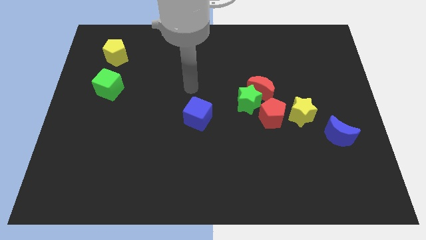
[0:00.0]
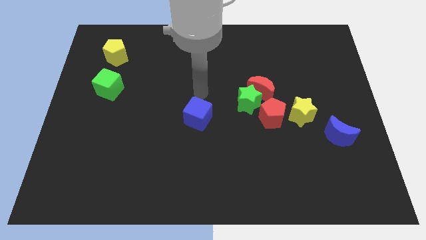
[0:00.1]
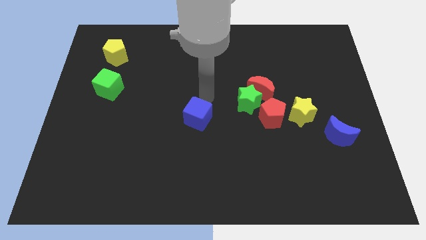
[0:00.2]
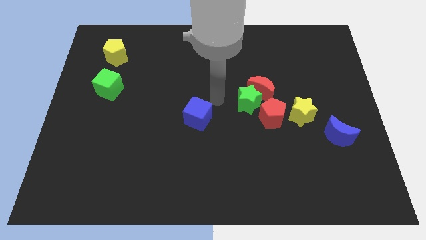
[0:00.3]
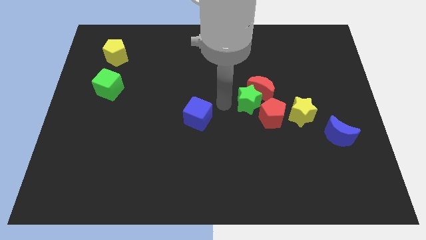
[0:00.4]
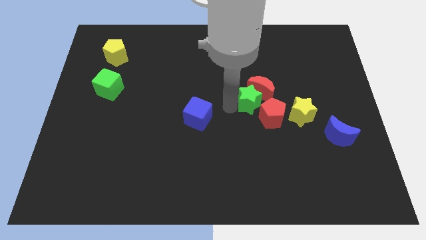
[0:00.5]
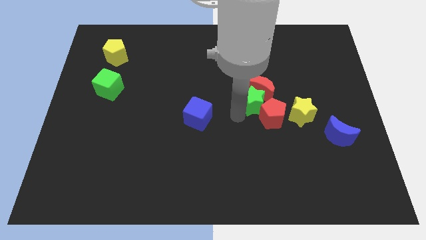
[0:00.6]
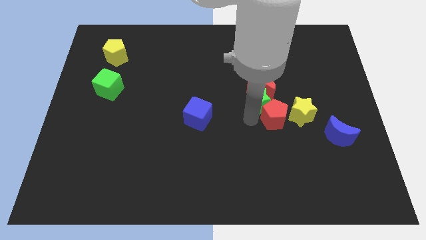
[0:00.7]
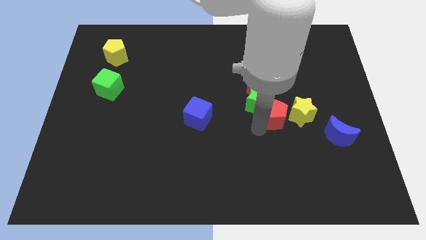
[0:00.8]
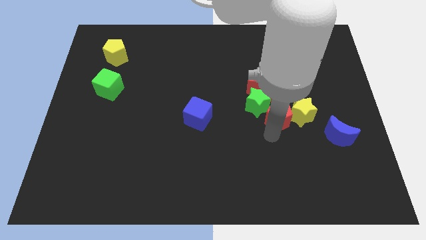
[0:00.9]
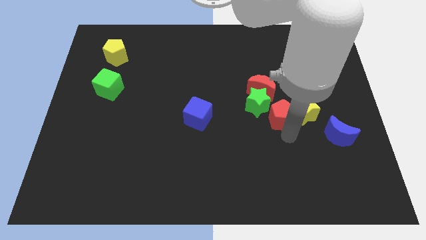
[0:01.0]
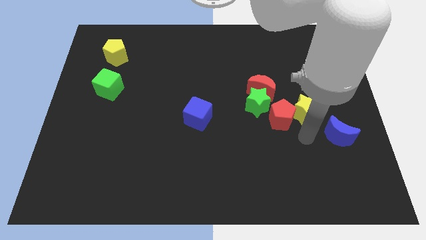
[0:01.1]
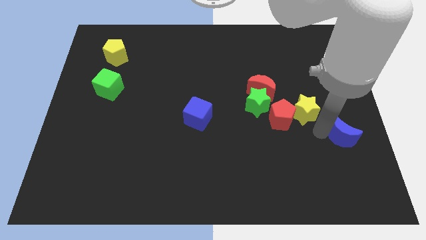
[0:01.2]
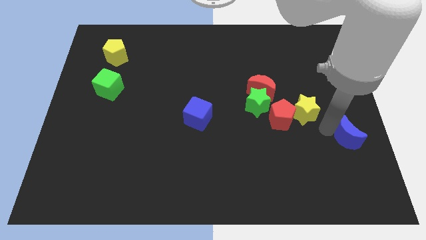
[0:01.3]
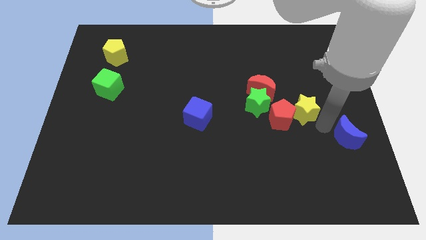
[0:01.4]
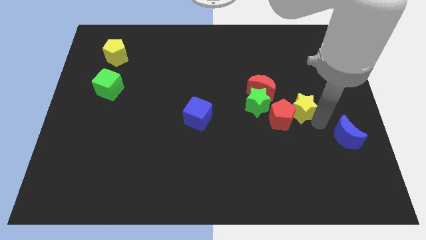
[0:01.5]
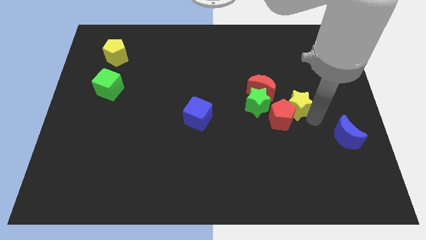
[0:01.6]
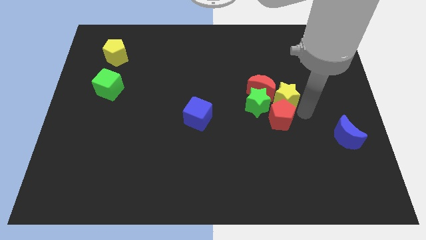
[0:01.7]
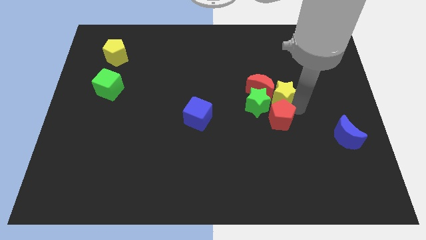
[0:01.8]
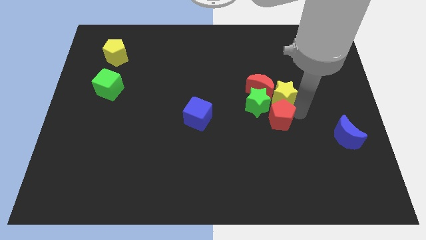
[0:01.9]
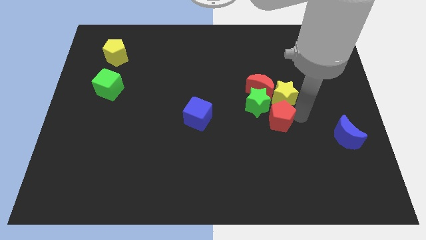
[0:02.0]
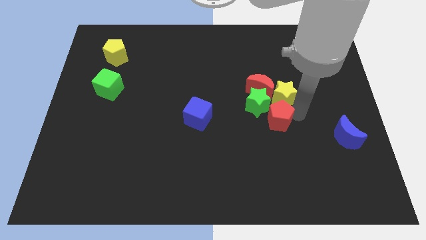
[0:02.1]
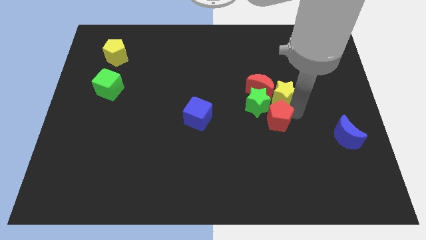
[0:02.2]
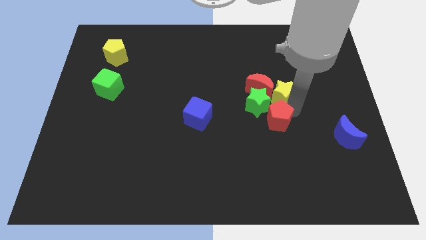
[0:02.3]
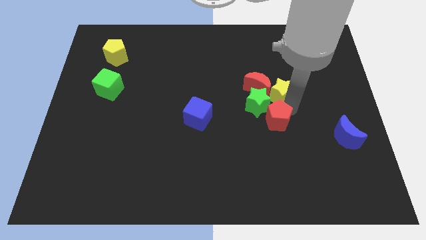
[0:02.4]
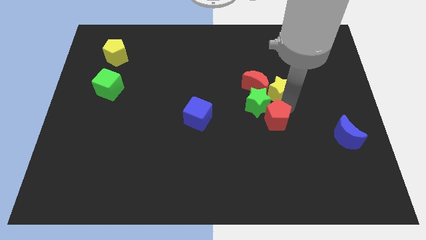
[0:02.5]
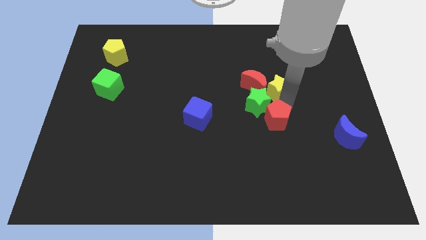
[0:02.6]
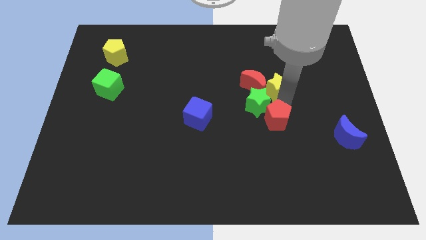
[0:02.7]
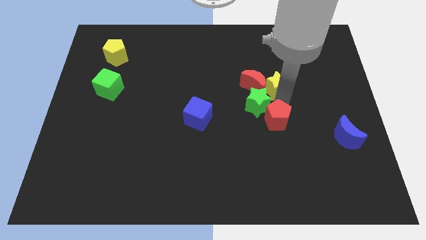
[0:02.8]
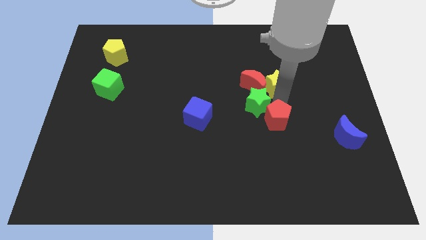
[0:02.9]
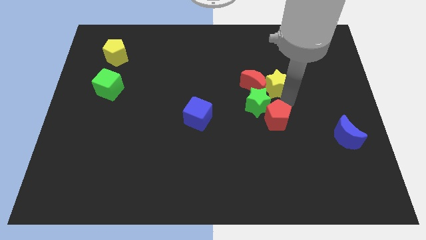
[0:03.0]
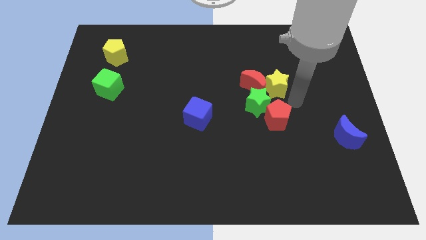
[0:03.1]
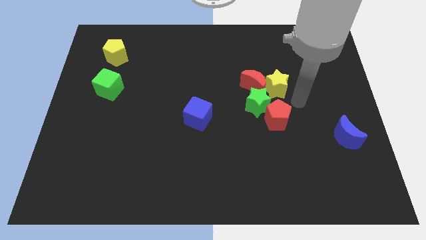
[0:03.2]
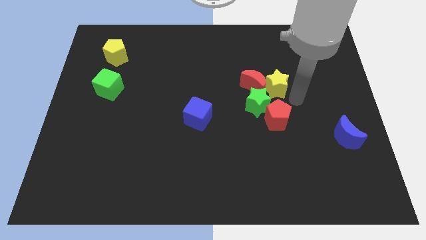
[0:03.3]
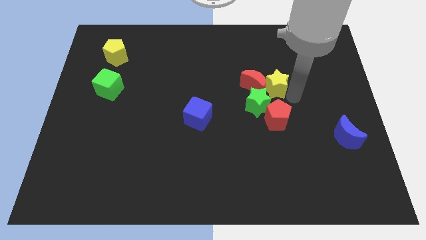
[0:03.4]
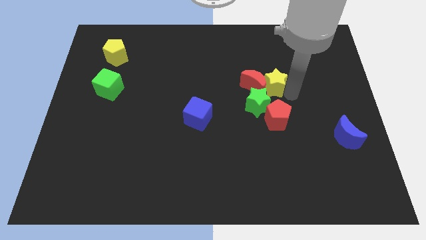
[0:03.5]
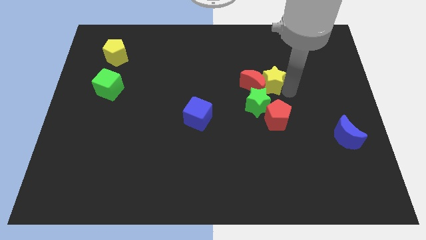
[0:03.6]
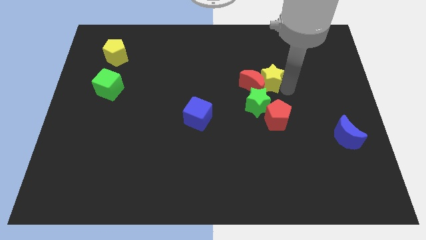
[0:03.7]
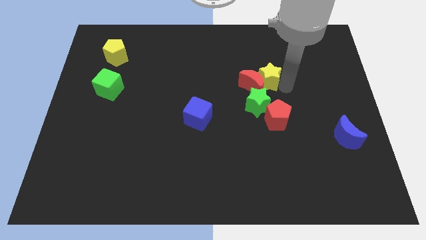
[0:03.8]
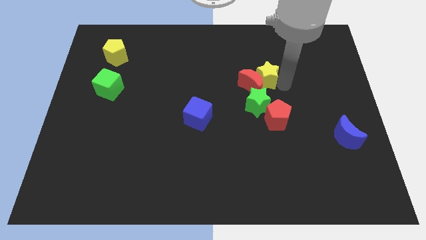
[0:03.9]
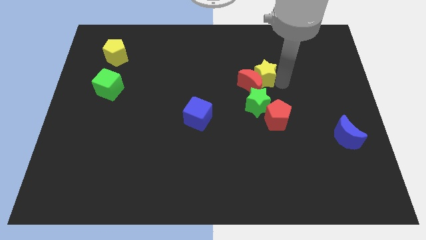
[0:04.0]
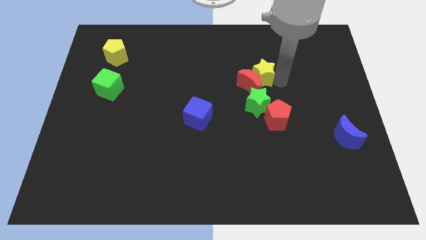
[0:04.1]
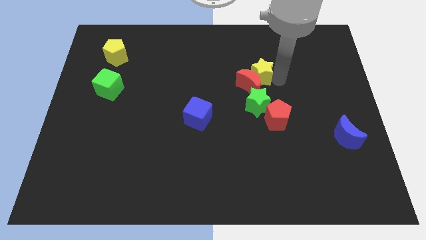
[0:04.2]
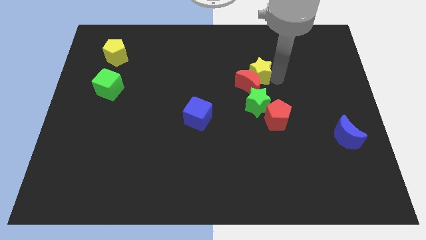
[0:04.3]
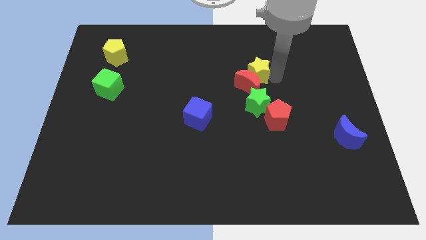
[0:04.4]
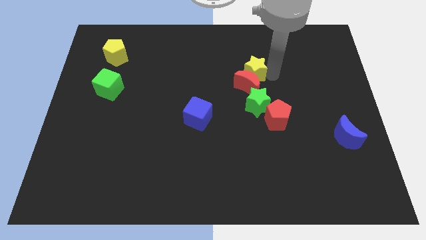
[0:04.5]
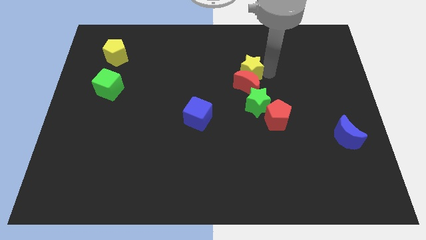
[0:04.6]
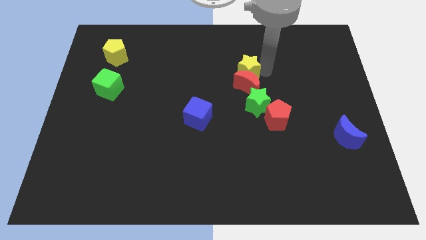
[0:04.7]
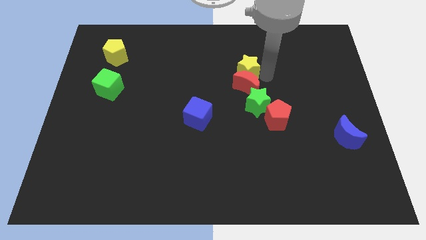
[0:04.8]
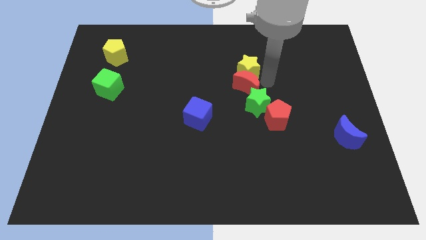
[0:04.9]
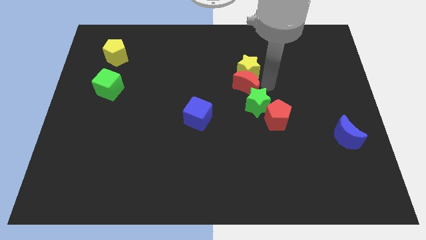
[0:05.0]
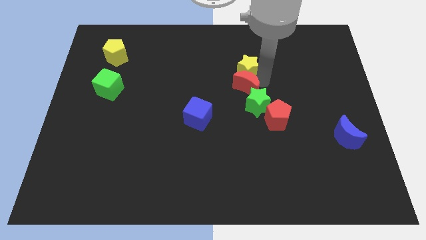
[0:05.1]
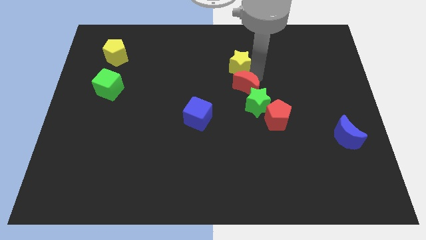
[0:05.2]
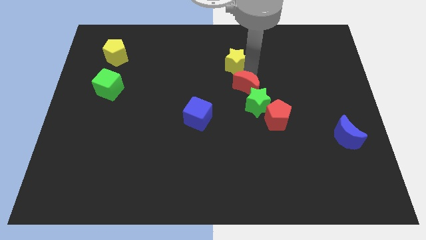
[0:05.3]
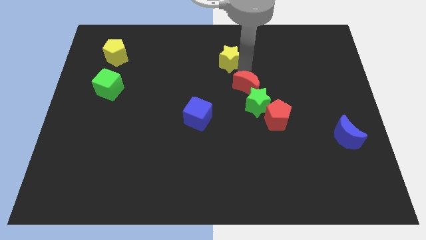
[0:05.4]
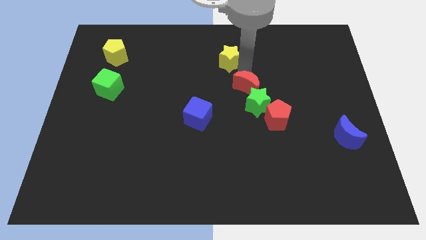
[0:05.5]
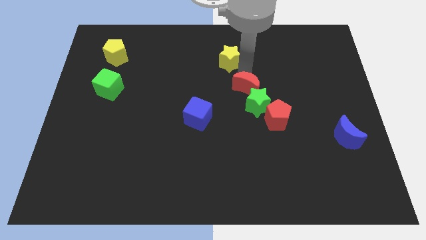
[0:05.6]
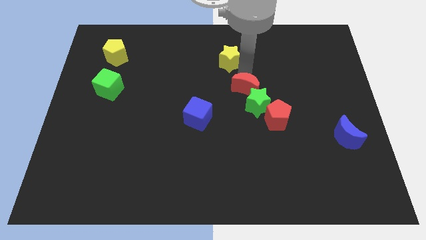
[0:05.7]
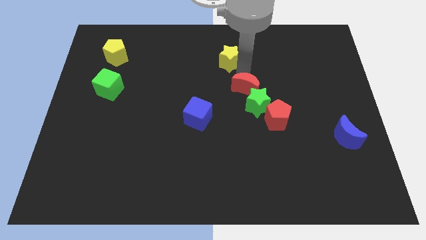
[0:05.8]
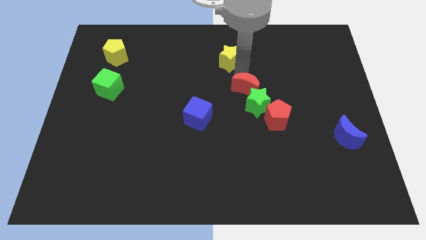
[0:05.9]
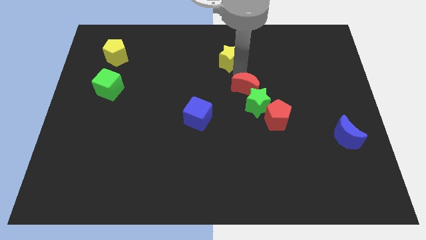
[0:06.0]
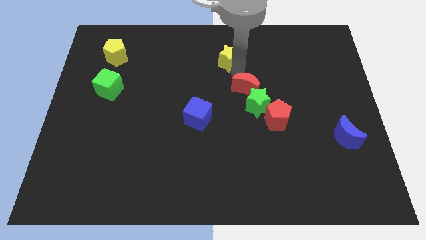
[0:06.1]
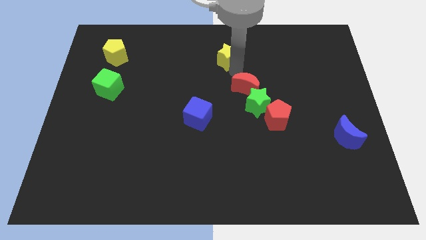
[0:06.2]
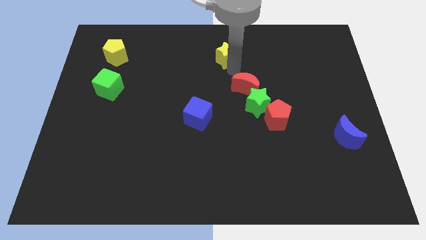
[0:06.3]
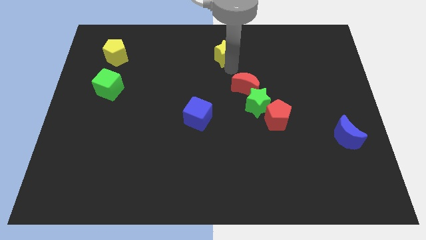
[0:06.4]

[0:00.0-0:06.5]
slide the yellow star to the top side
